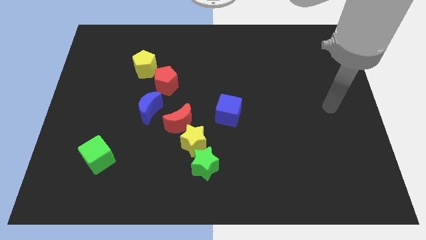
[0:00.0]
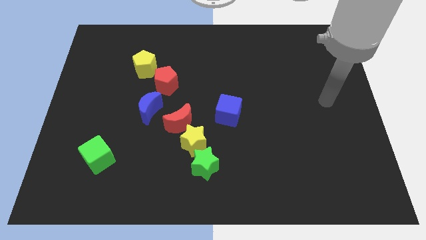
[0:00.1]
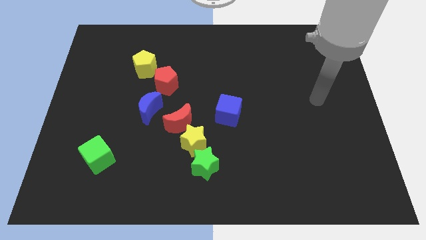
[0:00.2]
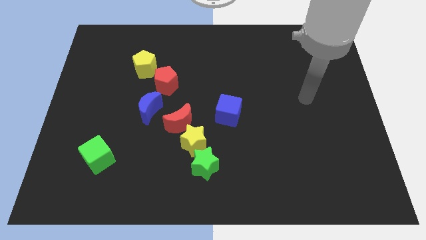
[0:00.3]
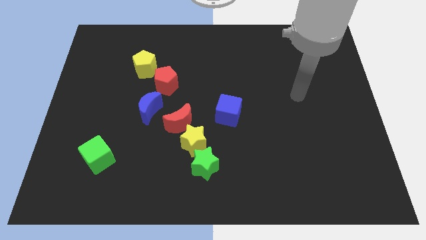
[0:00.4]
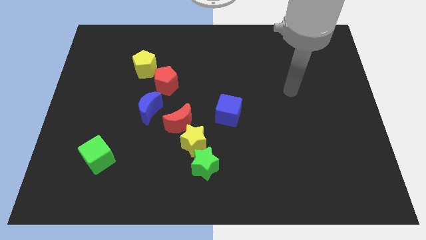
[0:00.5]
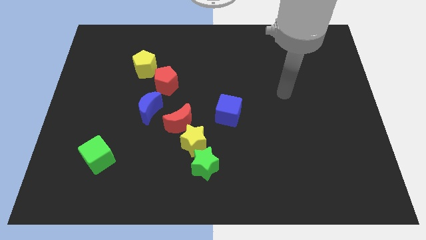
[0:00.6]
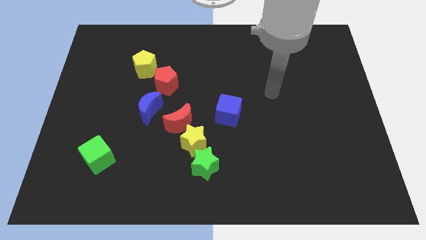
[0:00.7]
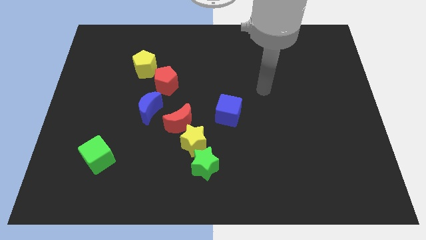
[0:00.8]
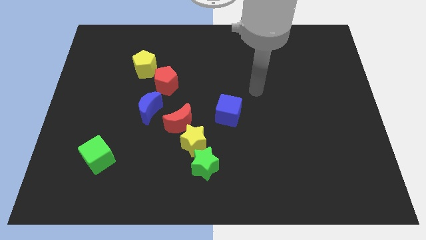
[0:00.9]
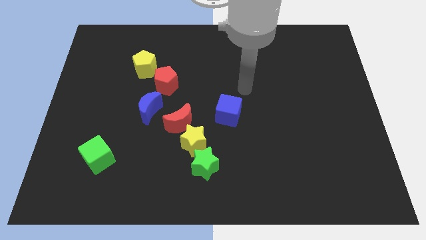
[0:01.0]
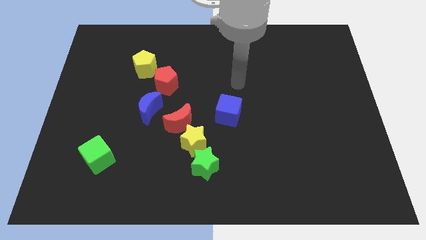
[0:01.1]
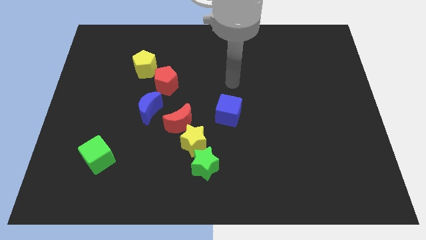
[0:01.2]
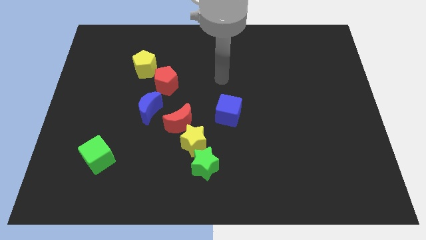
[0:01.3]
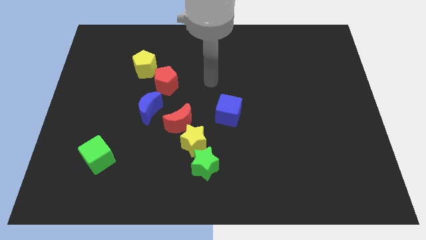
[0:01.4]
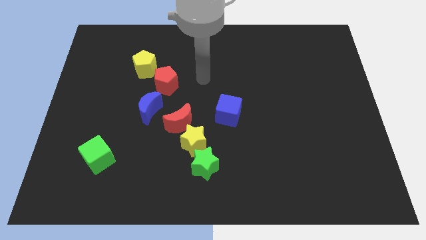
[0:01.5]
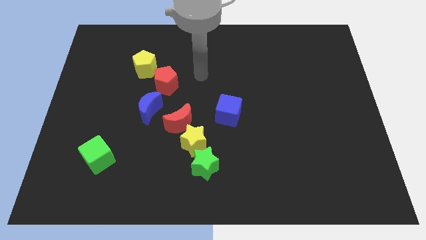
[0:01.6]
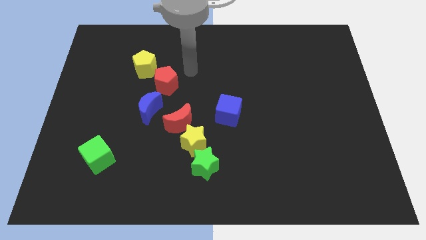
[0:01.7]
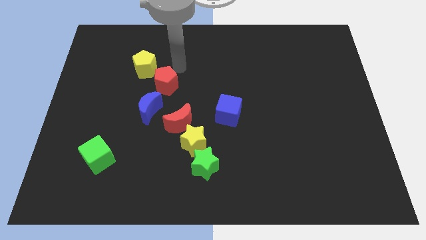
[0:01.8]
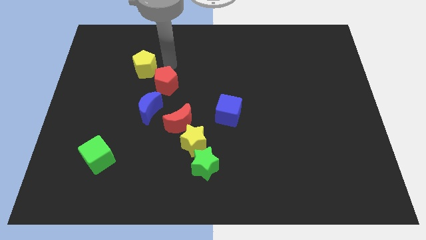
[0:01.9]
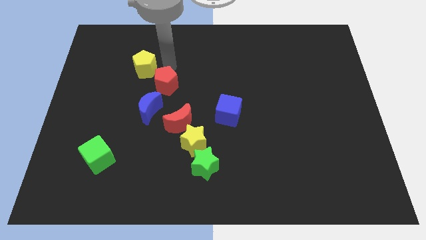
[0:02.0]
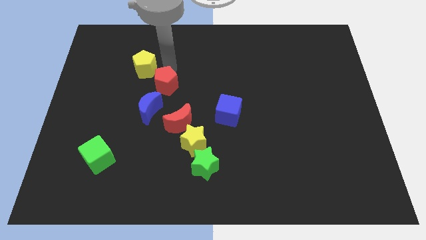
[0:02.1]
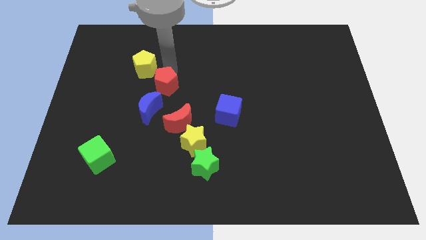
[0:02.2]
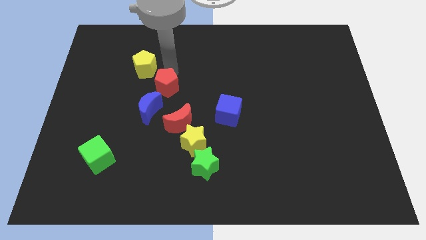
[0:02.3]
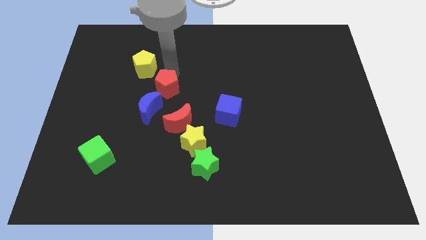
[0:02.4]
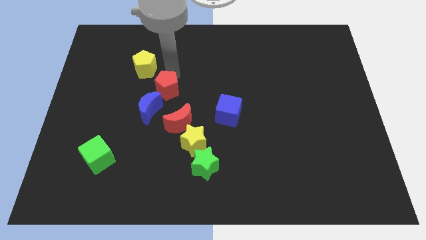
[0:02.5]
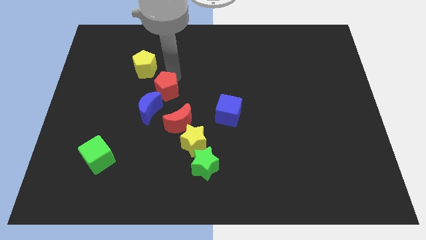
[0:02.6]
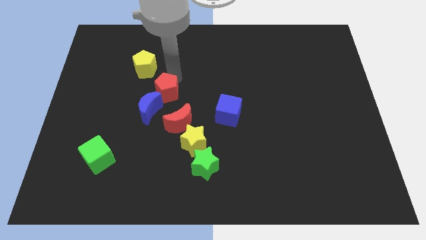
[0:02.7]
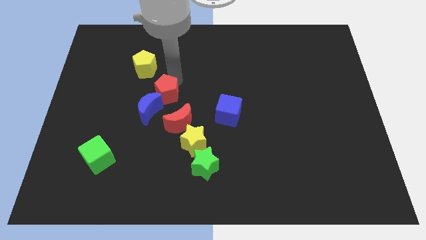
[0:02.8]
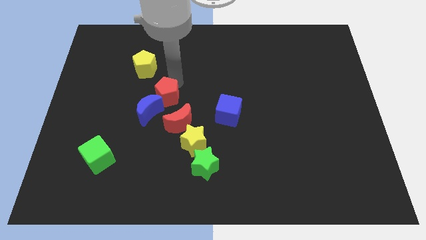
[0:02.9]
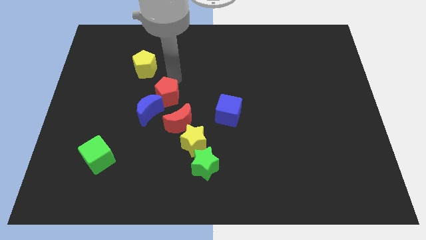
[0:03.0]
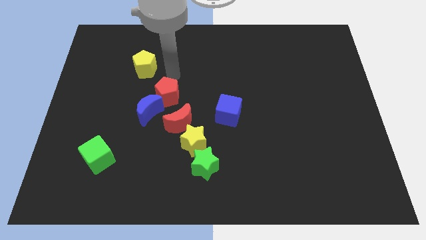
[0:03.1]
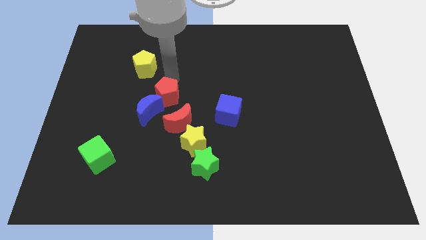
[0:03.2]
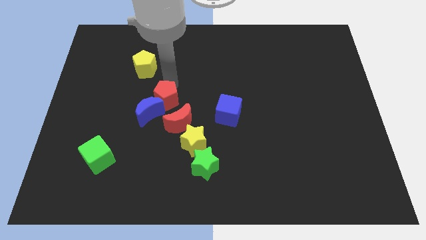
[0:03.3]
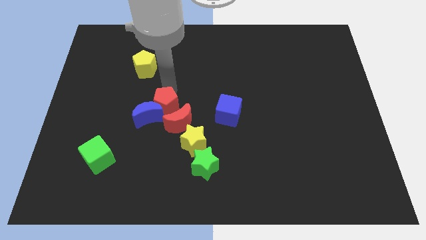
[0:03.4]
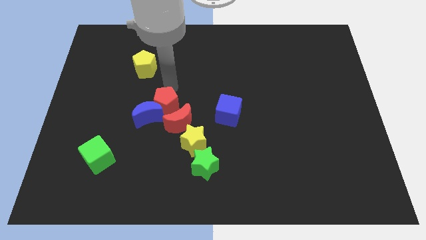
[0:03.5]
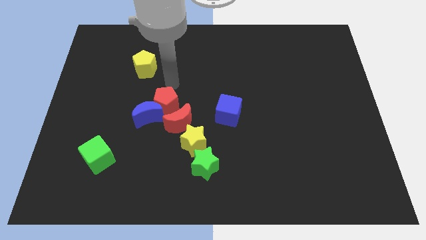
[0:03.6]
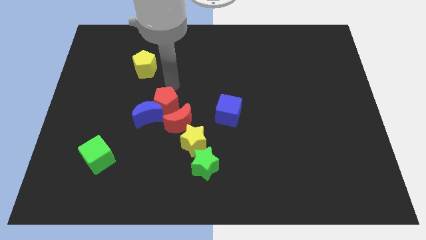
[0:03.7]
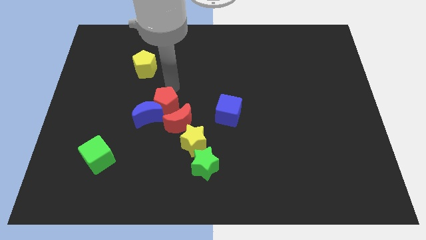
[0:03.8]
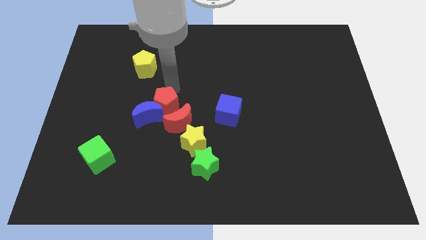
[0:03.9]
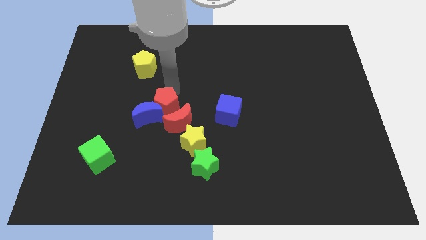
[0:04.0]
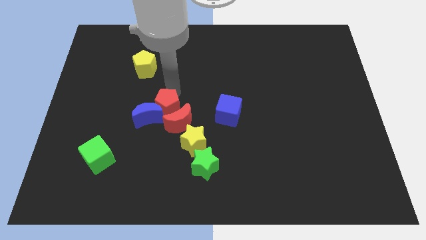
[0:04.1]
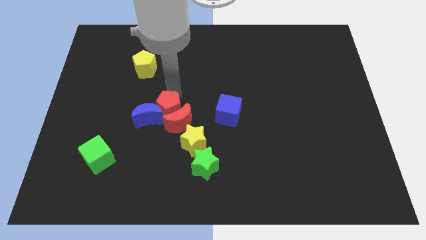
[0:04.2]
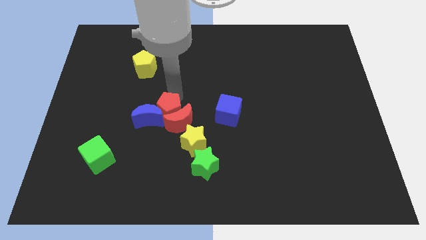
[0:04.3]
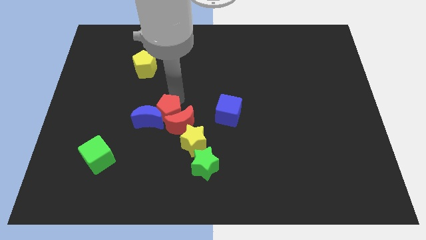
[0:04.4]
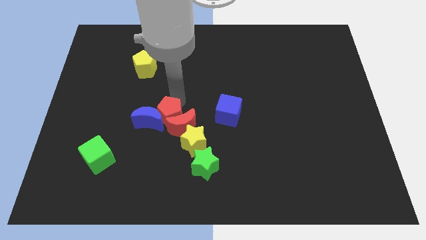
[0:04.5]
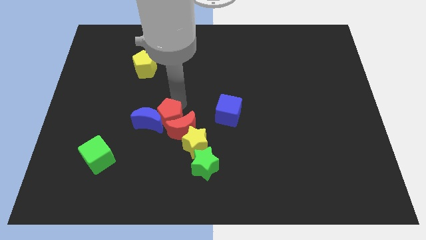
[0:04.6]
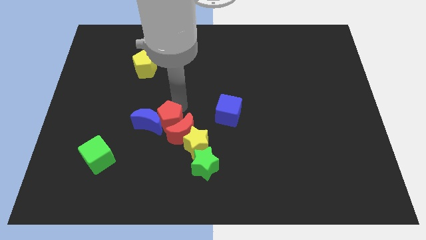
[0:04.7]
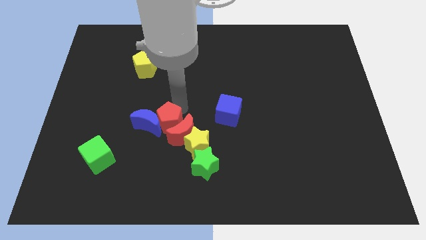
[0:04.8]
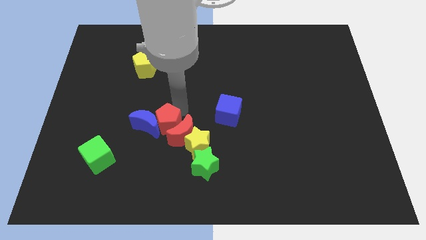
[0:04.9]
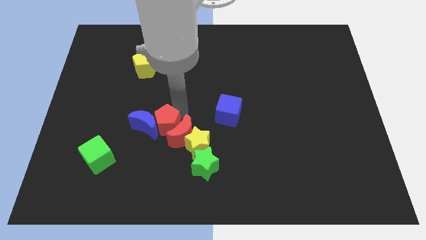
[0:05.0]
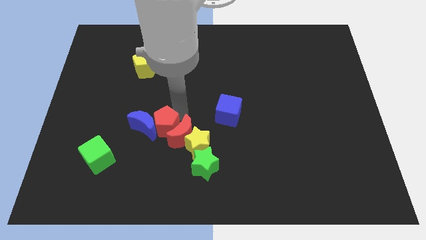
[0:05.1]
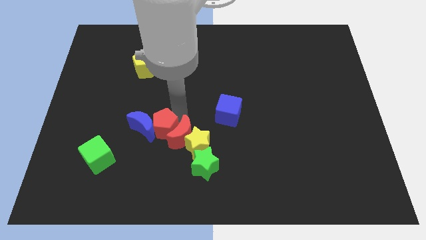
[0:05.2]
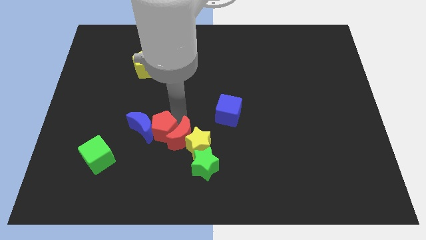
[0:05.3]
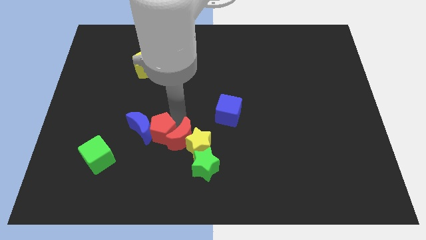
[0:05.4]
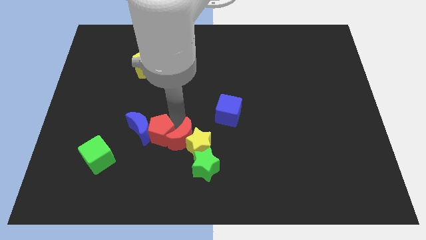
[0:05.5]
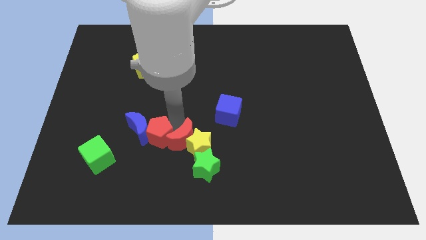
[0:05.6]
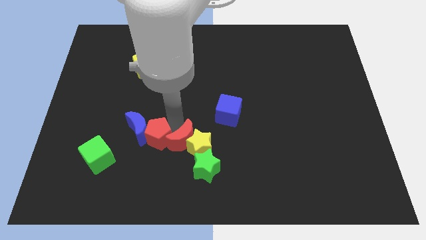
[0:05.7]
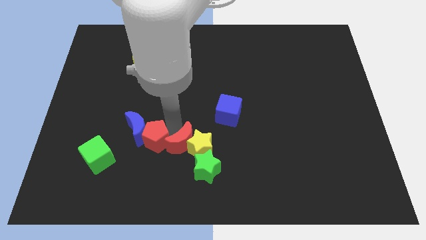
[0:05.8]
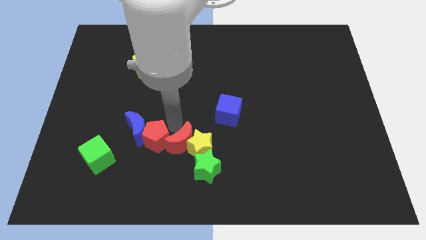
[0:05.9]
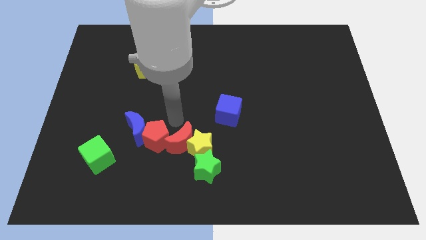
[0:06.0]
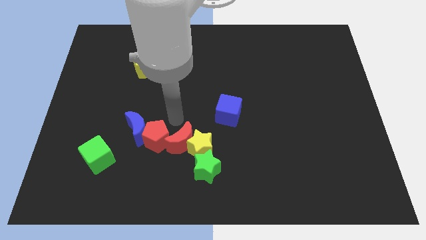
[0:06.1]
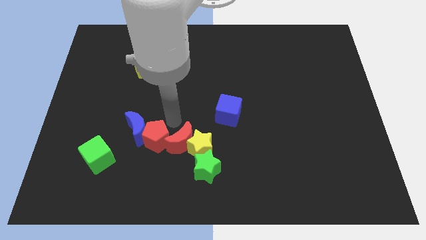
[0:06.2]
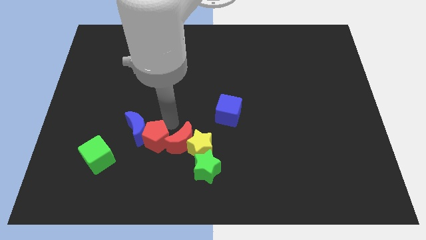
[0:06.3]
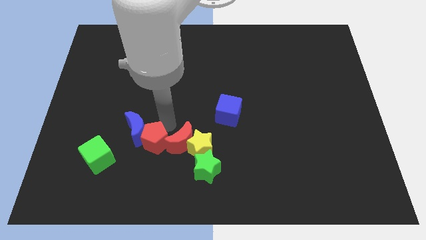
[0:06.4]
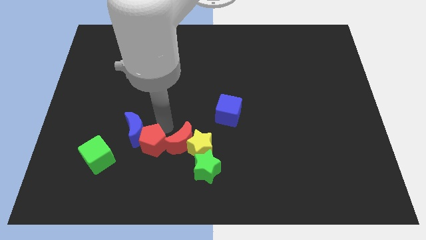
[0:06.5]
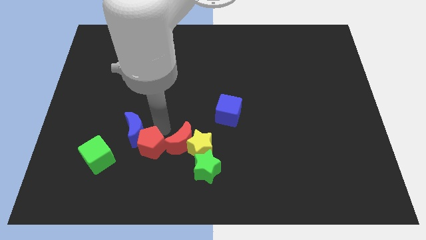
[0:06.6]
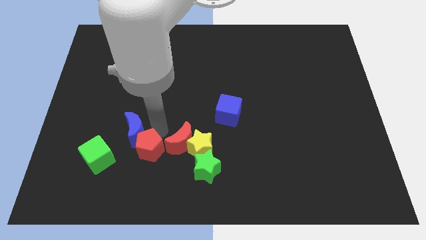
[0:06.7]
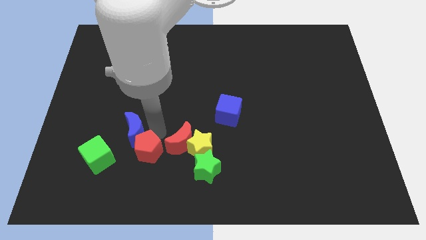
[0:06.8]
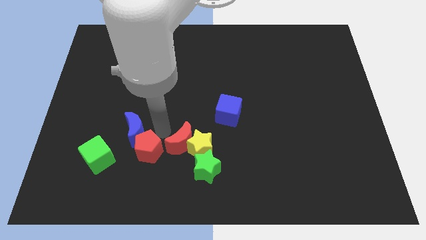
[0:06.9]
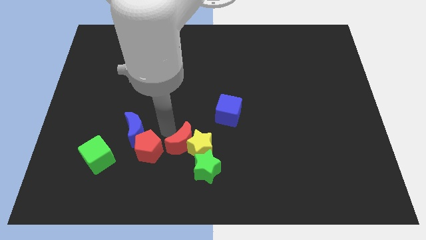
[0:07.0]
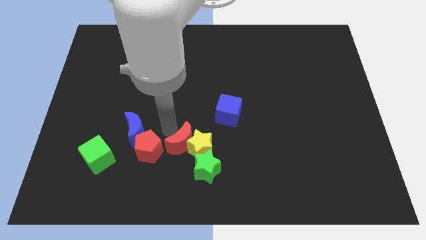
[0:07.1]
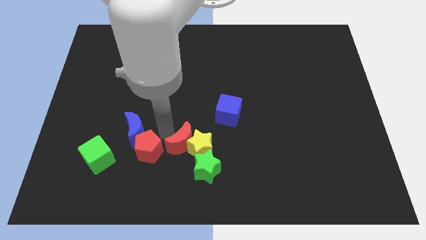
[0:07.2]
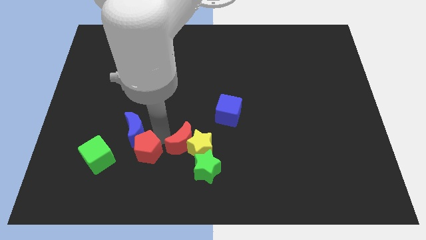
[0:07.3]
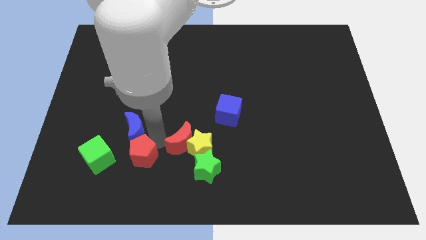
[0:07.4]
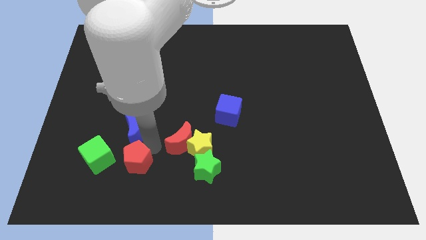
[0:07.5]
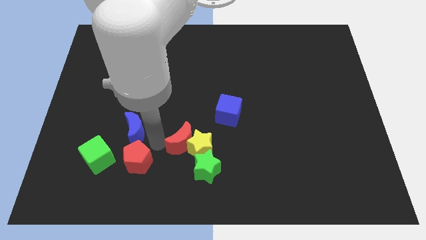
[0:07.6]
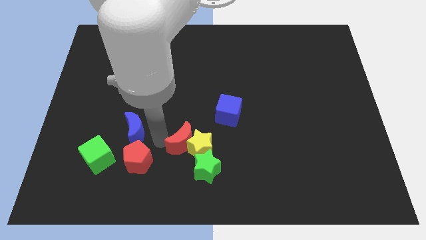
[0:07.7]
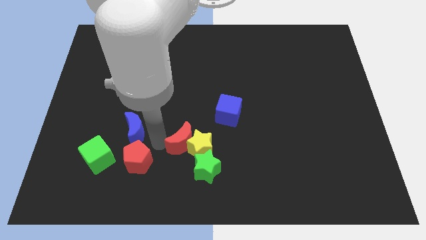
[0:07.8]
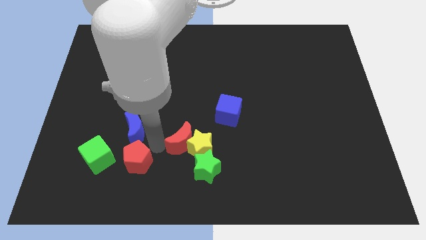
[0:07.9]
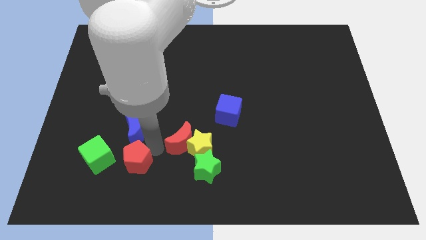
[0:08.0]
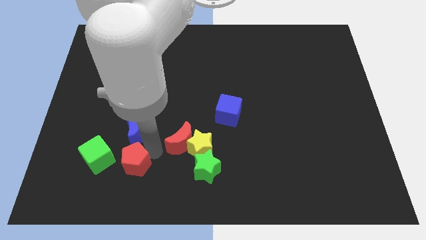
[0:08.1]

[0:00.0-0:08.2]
push the red pentagon diagonally down and to the right of the green cube
